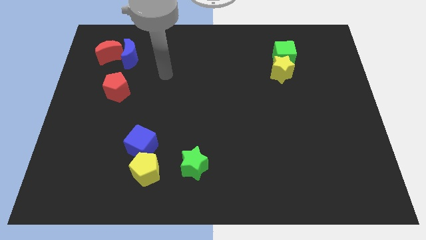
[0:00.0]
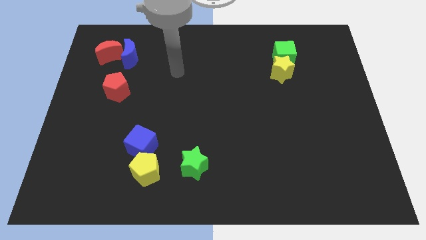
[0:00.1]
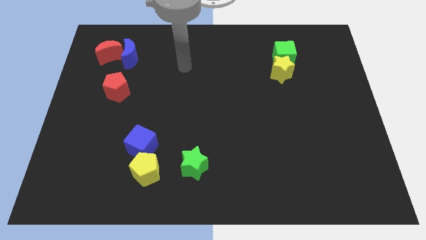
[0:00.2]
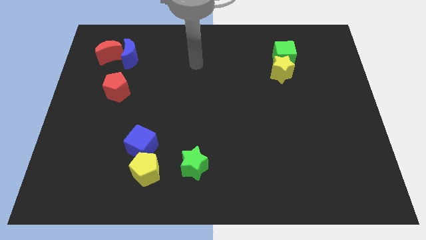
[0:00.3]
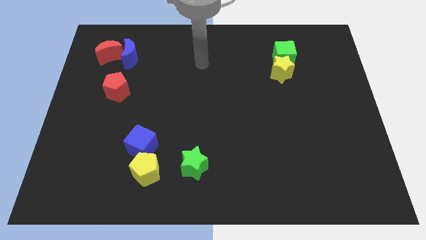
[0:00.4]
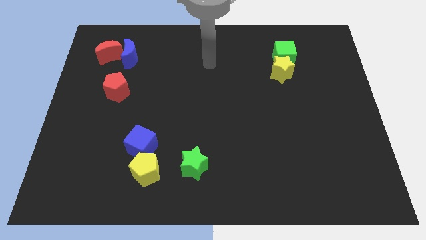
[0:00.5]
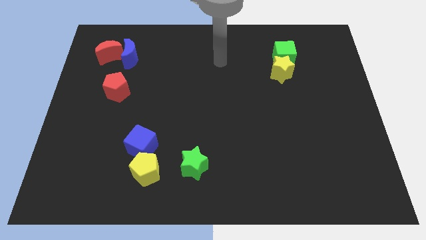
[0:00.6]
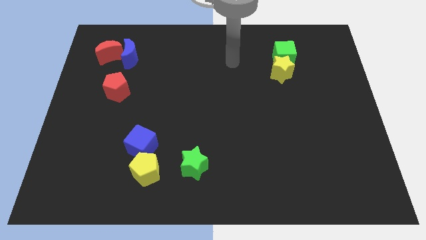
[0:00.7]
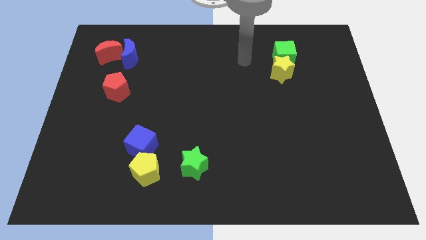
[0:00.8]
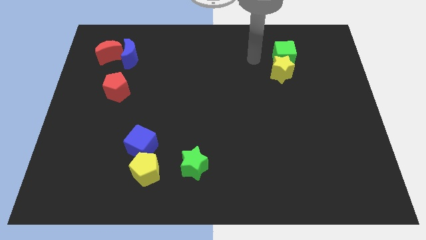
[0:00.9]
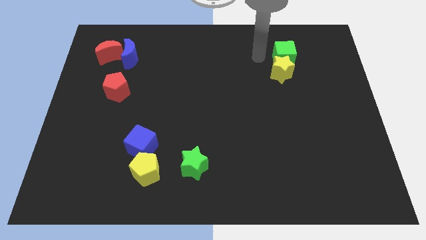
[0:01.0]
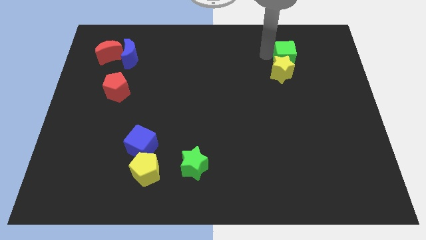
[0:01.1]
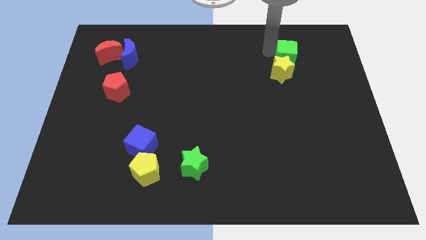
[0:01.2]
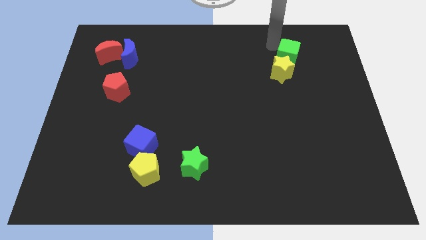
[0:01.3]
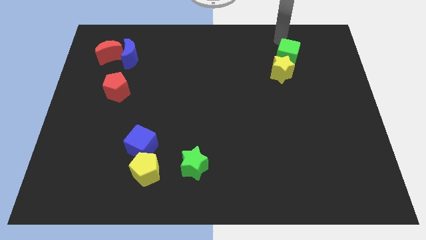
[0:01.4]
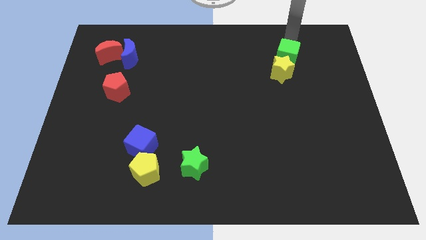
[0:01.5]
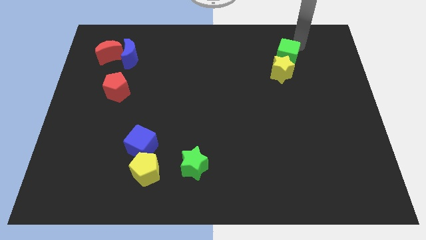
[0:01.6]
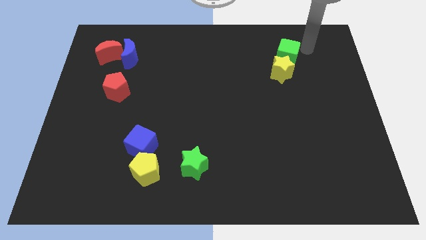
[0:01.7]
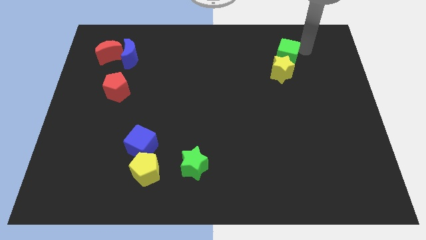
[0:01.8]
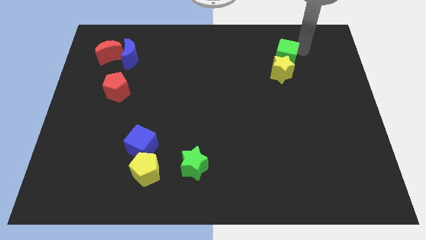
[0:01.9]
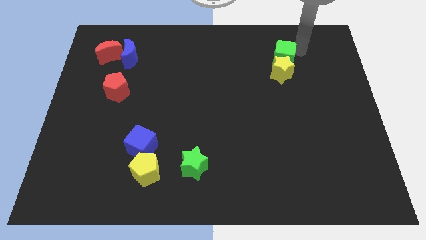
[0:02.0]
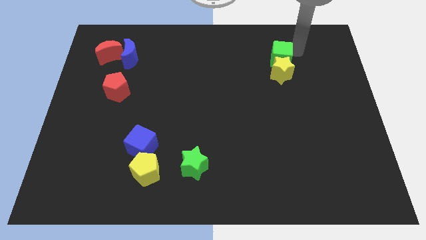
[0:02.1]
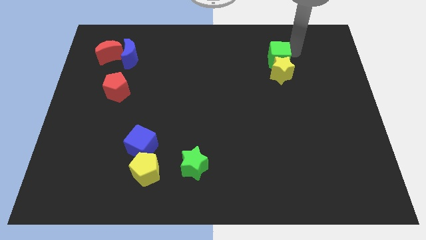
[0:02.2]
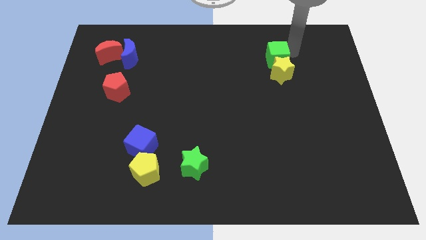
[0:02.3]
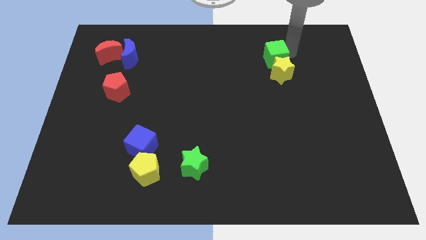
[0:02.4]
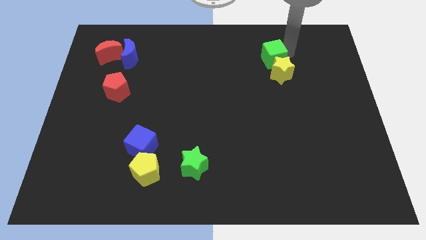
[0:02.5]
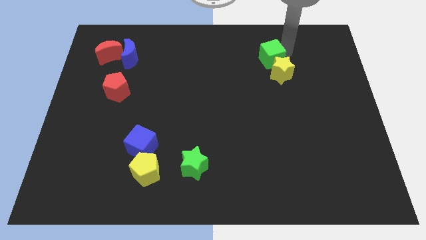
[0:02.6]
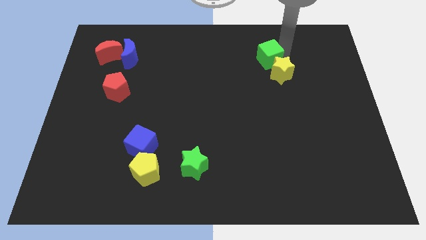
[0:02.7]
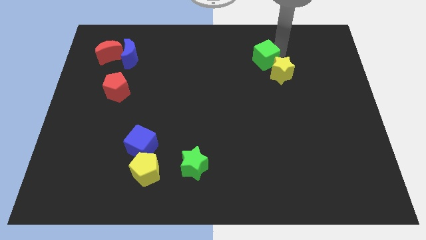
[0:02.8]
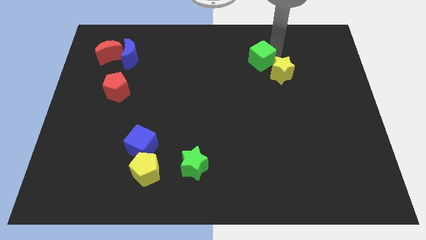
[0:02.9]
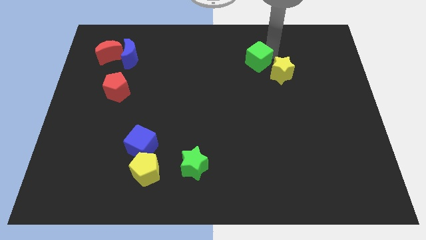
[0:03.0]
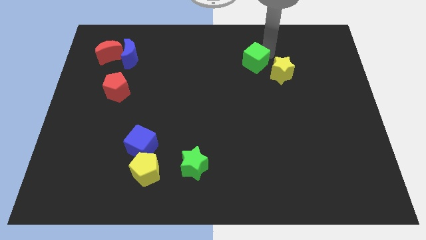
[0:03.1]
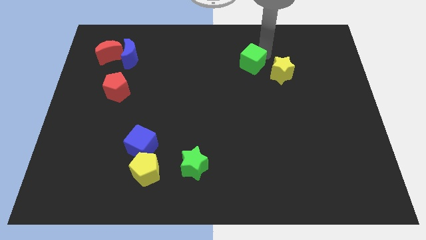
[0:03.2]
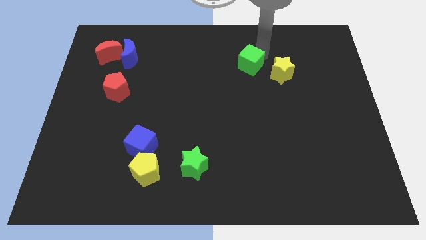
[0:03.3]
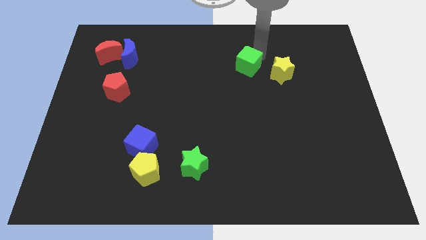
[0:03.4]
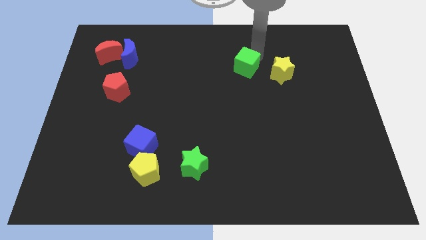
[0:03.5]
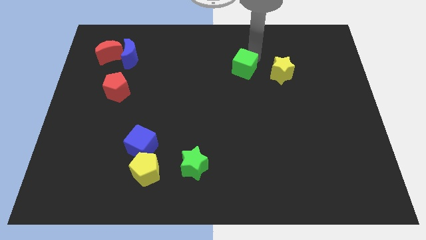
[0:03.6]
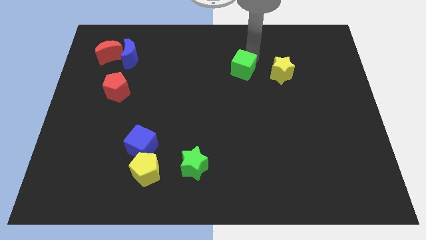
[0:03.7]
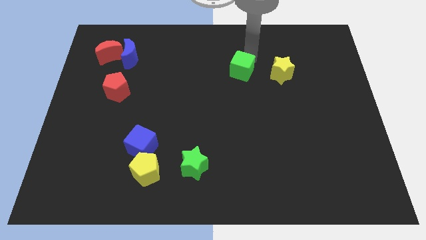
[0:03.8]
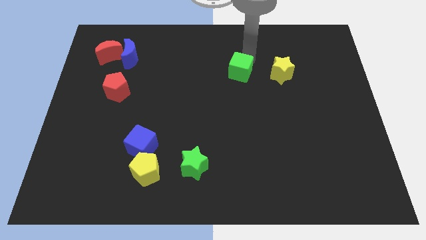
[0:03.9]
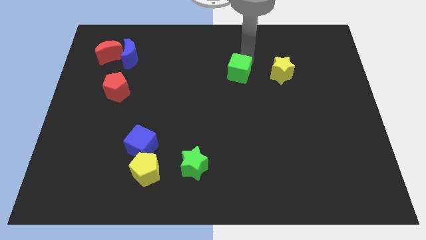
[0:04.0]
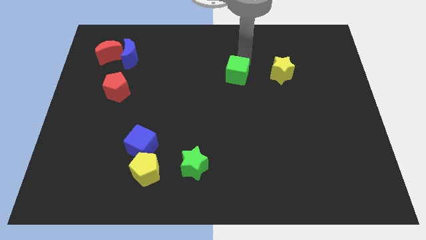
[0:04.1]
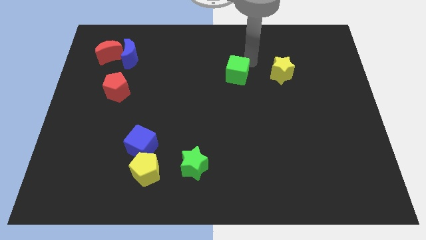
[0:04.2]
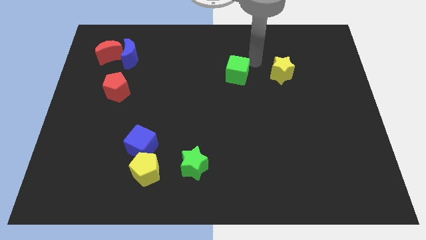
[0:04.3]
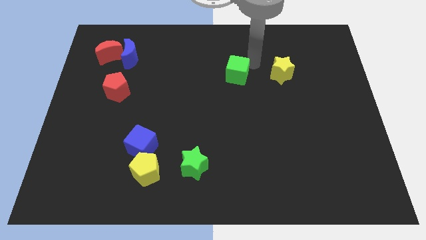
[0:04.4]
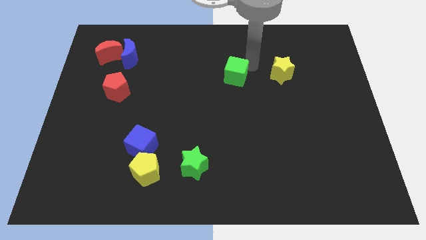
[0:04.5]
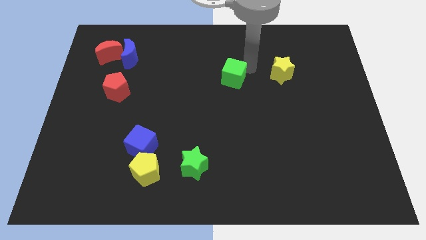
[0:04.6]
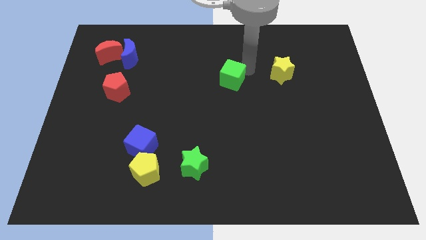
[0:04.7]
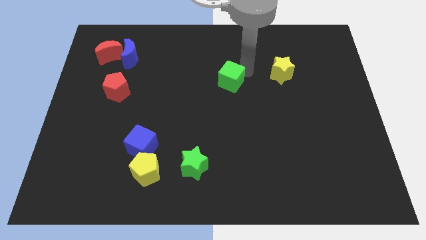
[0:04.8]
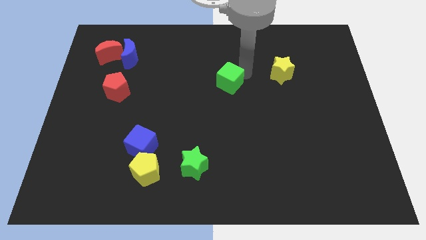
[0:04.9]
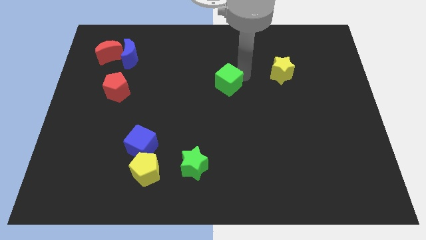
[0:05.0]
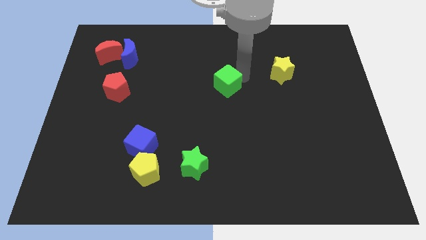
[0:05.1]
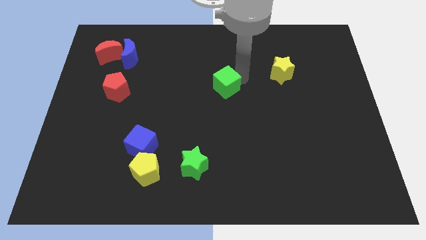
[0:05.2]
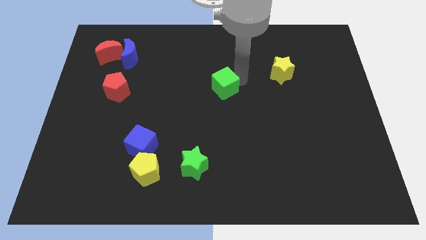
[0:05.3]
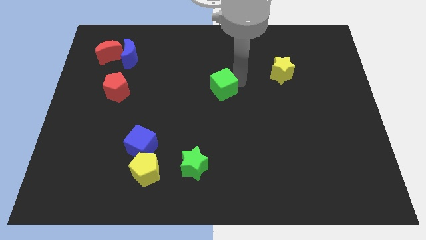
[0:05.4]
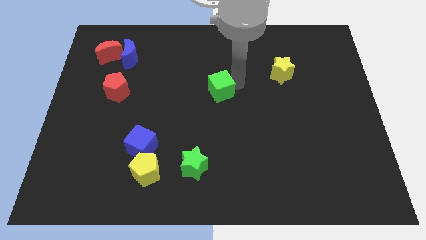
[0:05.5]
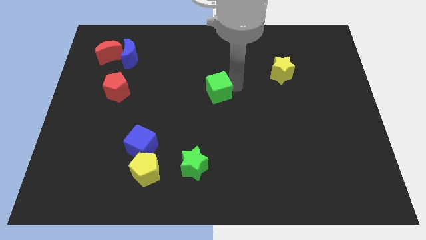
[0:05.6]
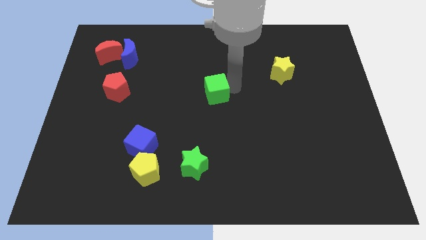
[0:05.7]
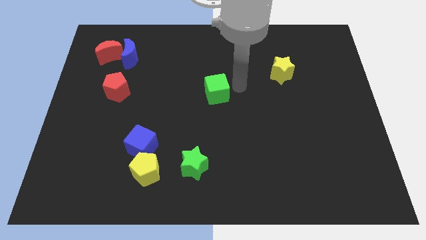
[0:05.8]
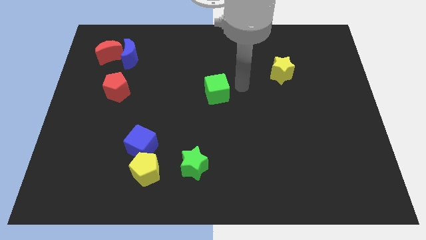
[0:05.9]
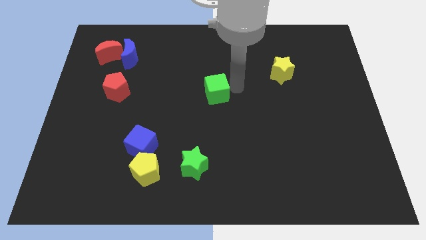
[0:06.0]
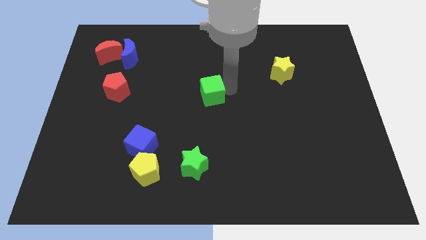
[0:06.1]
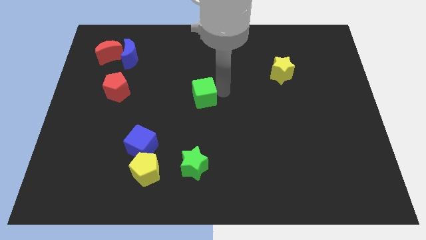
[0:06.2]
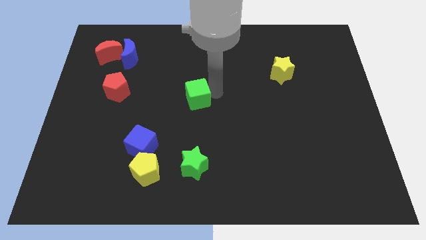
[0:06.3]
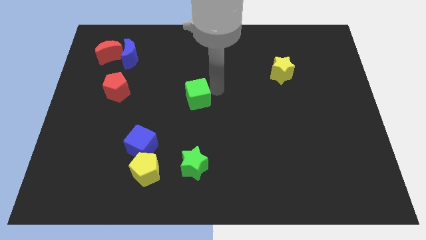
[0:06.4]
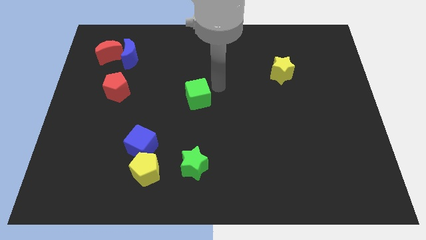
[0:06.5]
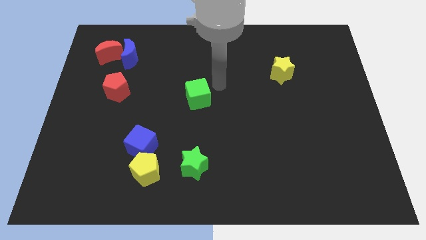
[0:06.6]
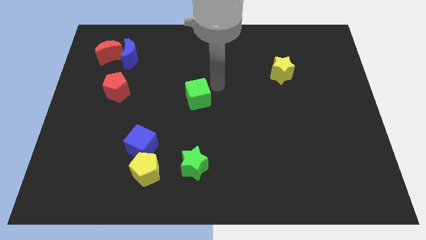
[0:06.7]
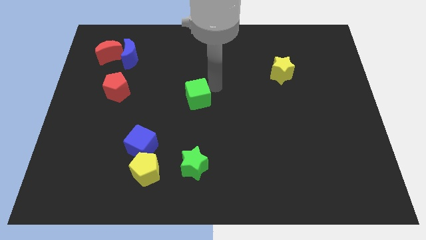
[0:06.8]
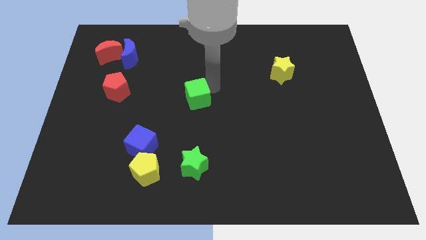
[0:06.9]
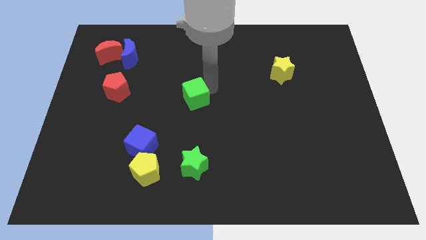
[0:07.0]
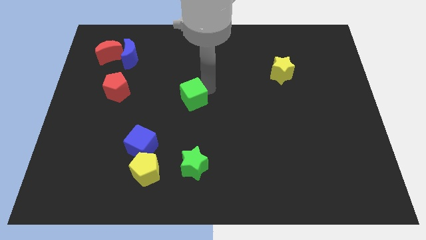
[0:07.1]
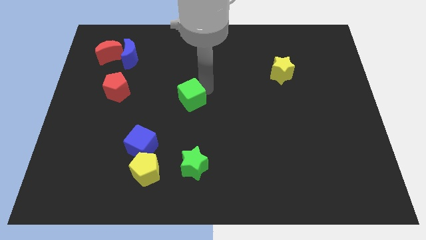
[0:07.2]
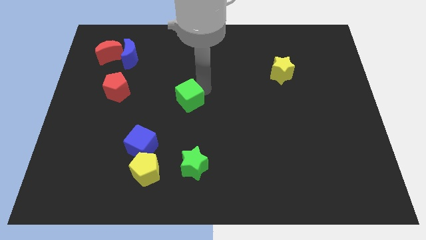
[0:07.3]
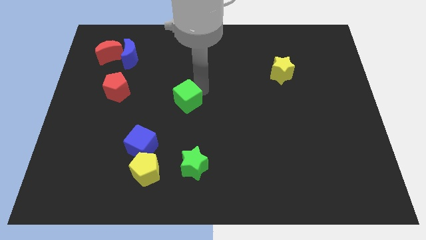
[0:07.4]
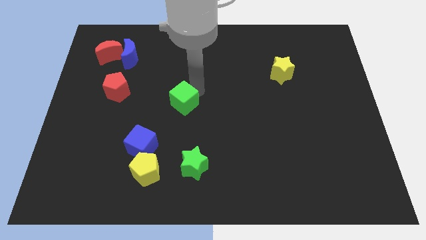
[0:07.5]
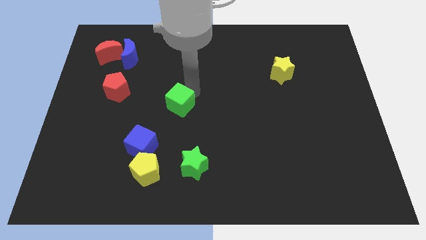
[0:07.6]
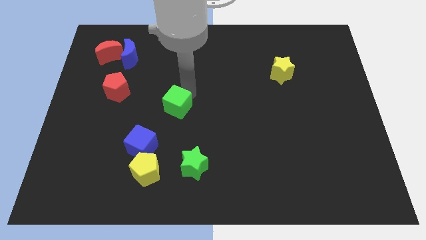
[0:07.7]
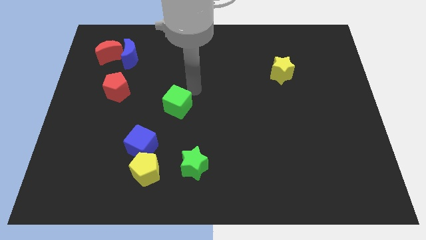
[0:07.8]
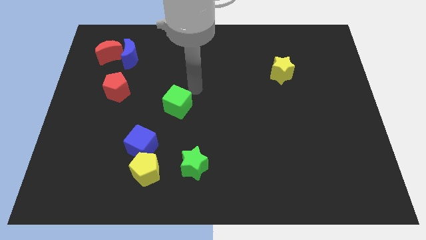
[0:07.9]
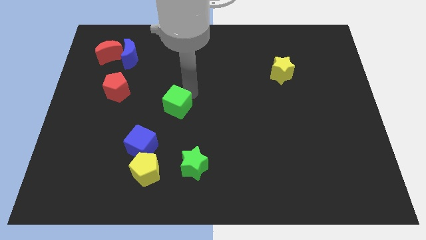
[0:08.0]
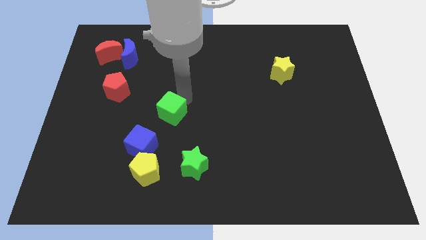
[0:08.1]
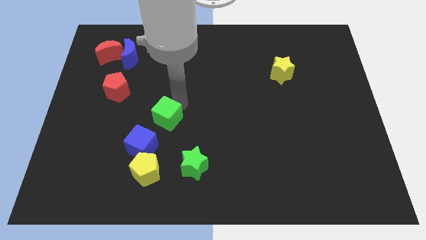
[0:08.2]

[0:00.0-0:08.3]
push the green cube above the yellow pentagon

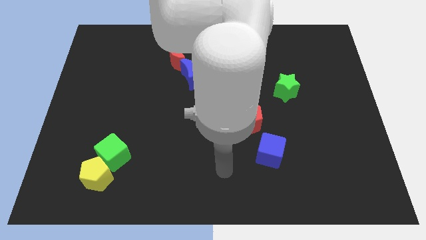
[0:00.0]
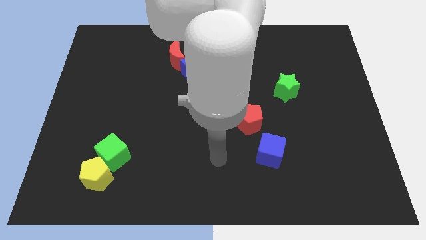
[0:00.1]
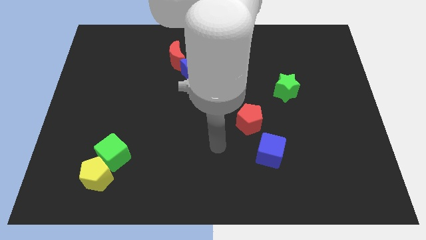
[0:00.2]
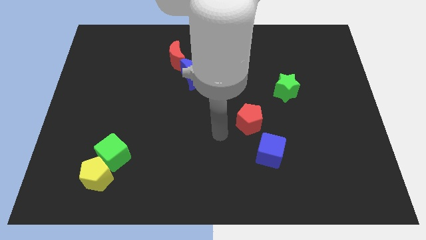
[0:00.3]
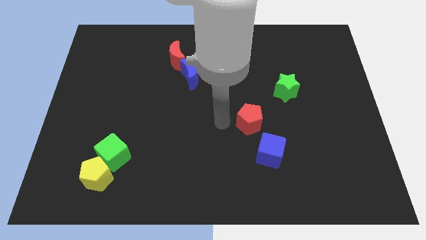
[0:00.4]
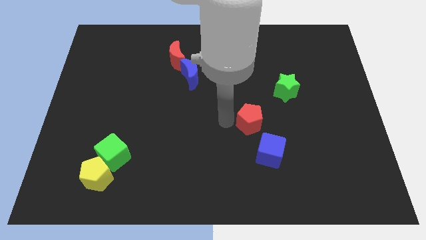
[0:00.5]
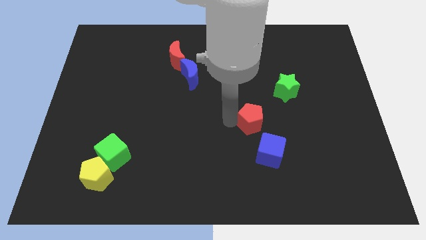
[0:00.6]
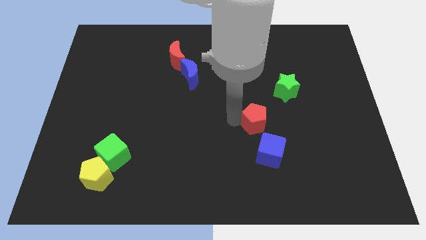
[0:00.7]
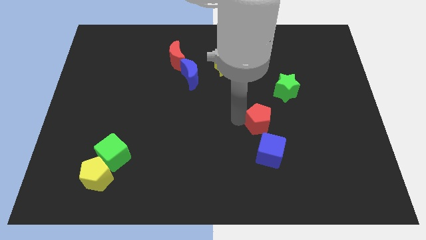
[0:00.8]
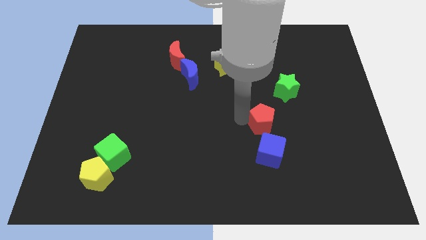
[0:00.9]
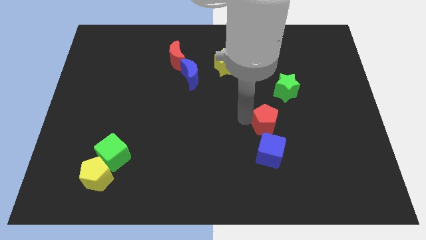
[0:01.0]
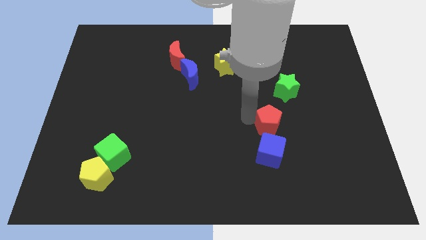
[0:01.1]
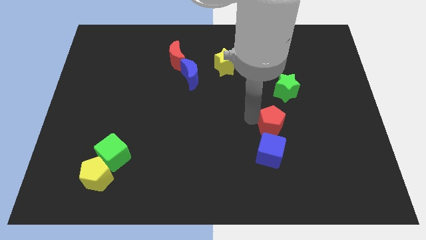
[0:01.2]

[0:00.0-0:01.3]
slide the red pentagon to the bottom side of the green star
